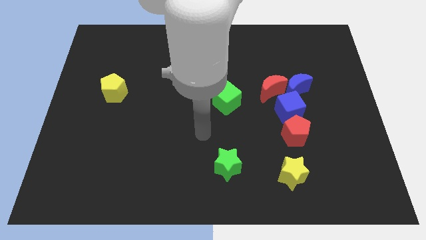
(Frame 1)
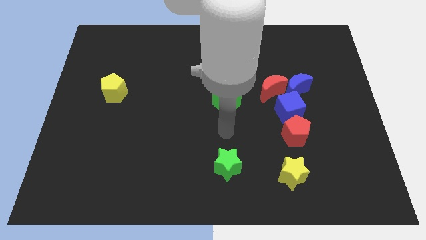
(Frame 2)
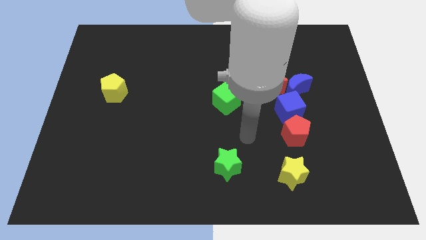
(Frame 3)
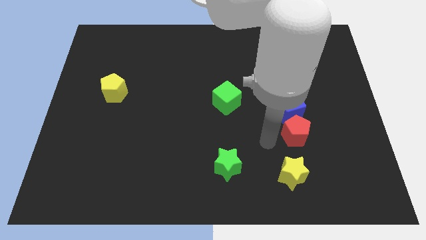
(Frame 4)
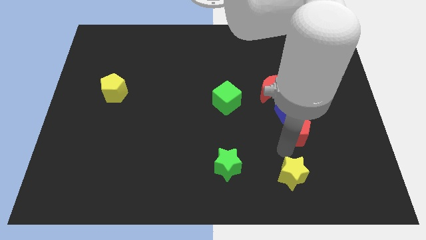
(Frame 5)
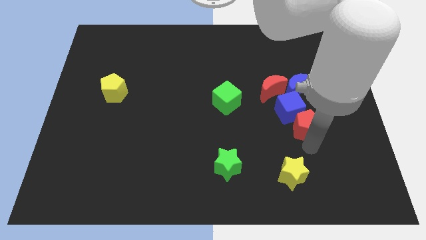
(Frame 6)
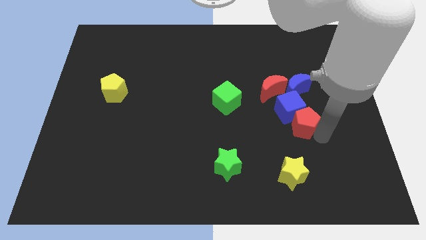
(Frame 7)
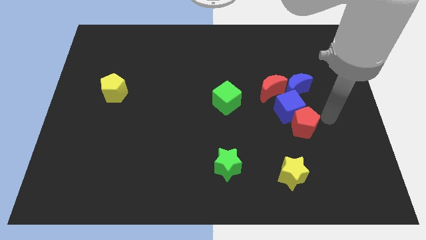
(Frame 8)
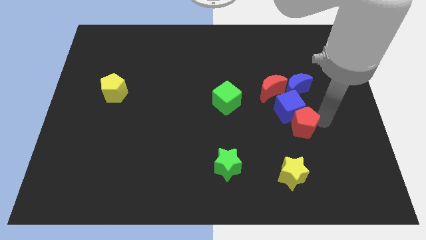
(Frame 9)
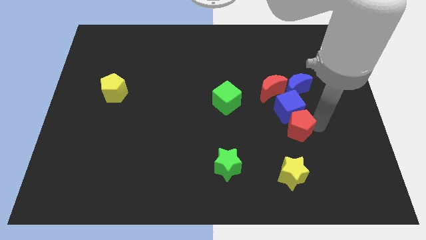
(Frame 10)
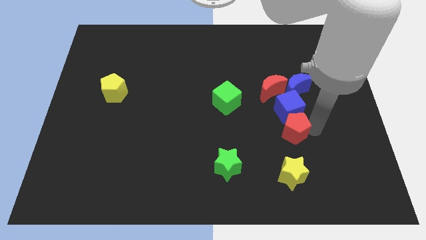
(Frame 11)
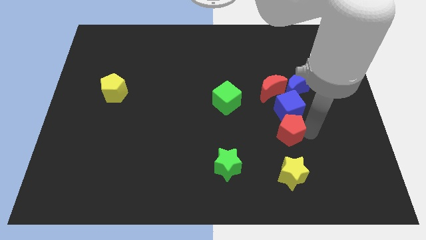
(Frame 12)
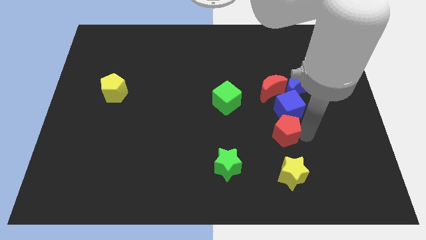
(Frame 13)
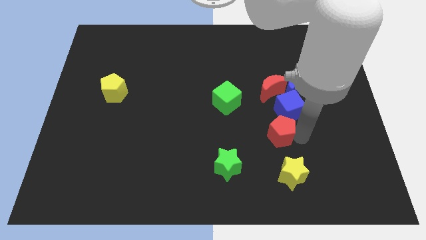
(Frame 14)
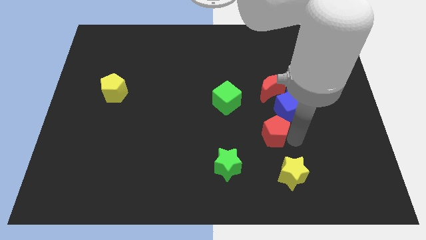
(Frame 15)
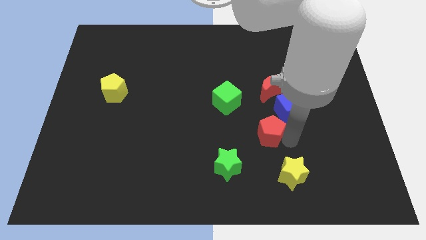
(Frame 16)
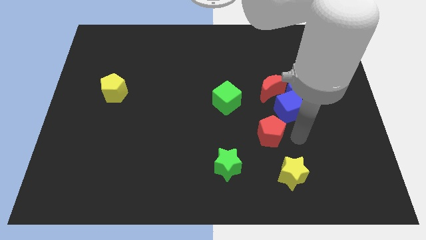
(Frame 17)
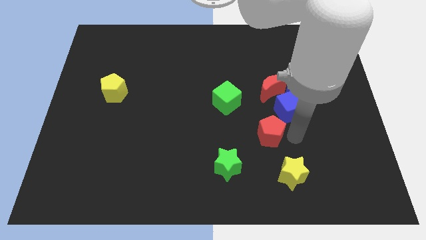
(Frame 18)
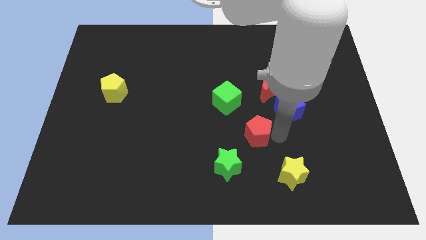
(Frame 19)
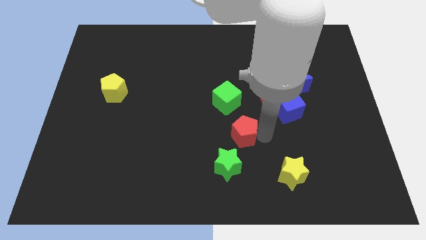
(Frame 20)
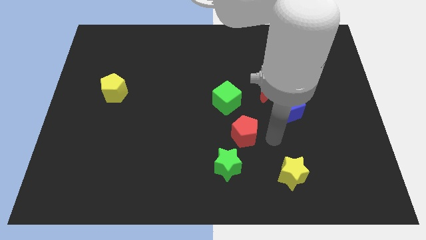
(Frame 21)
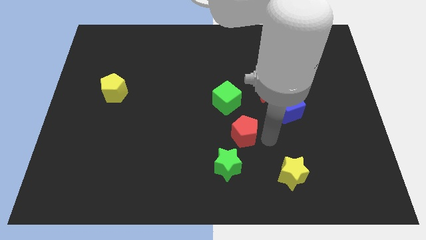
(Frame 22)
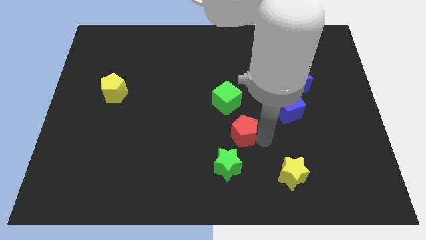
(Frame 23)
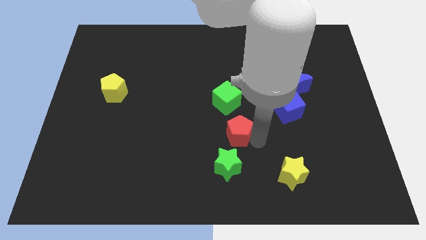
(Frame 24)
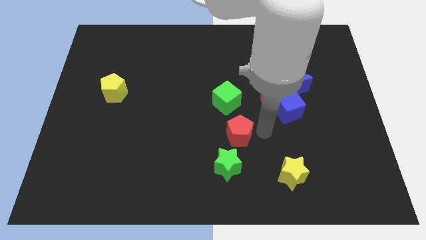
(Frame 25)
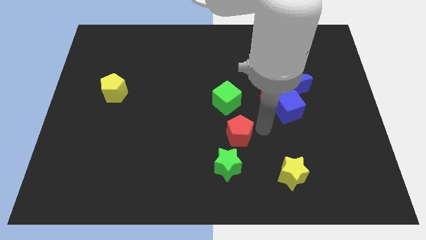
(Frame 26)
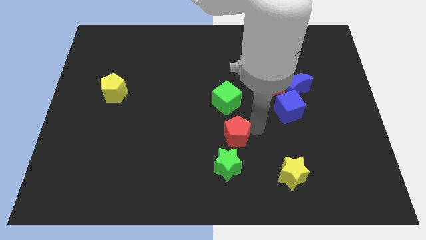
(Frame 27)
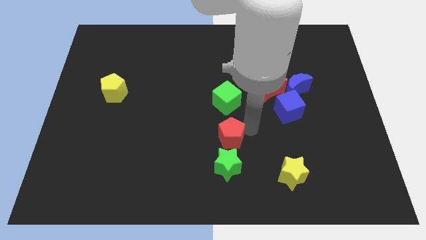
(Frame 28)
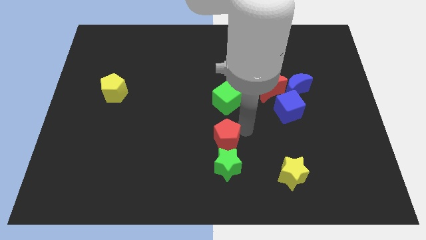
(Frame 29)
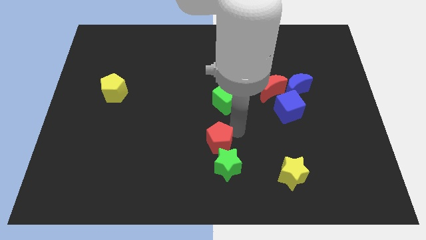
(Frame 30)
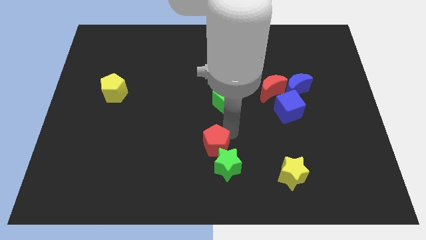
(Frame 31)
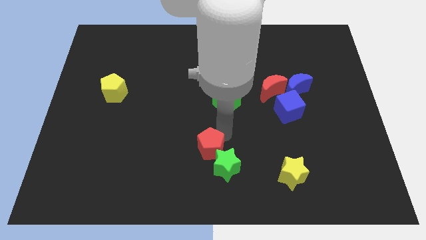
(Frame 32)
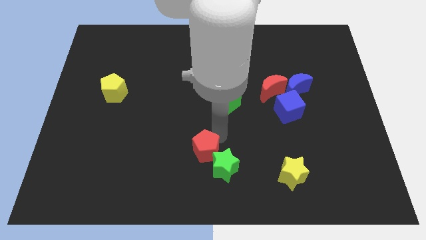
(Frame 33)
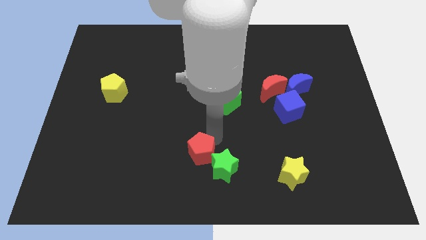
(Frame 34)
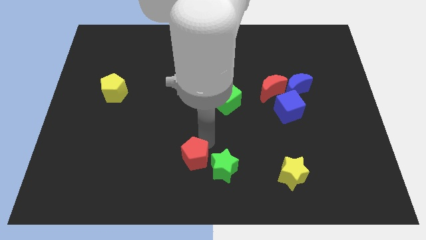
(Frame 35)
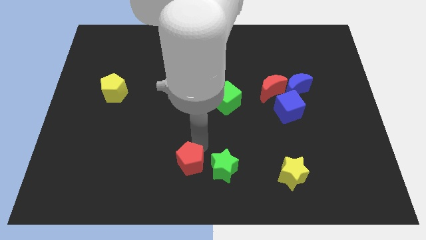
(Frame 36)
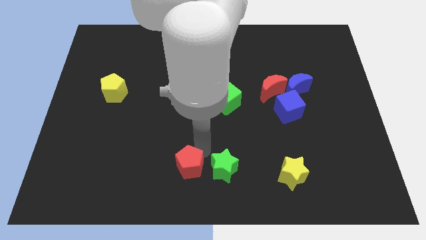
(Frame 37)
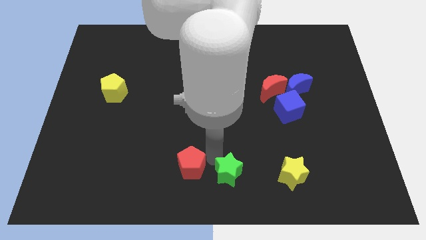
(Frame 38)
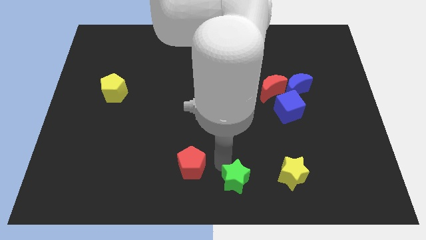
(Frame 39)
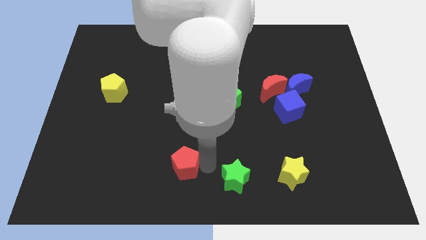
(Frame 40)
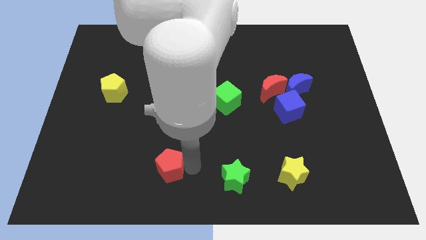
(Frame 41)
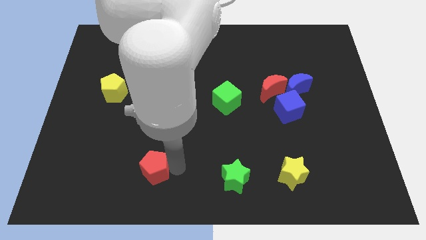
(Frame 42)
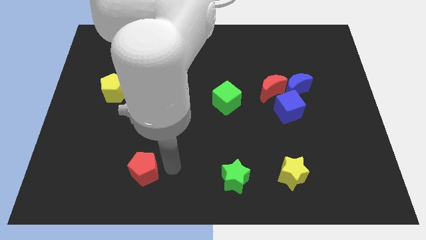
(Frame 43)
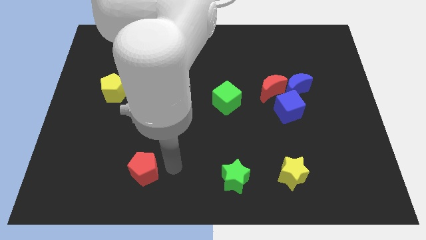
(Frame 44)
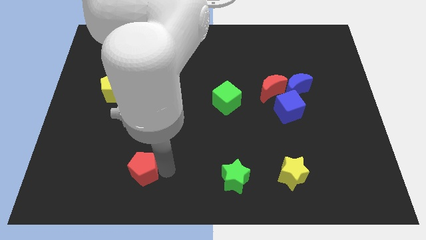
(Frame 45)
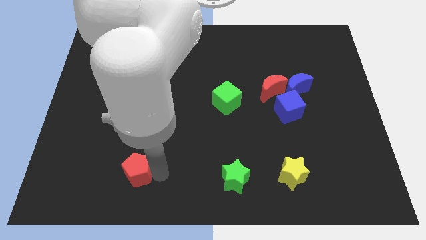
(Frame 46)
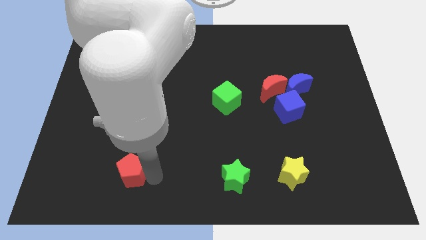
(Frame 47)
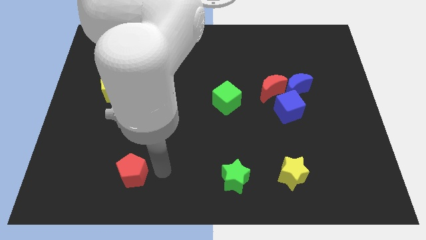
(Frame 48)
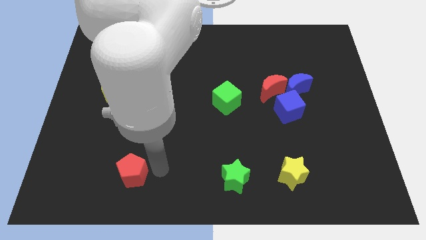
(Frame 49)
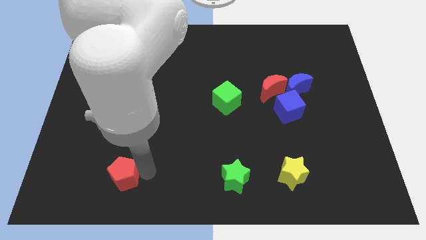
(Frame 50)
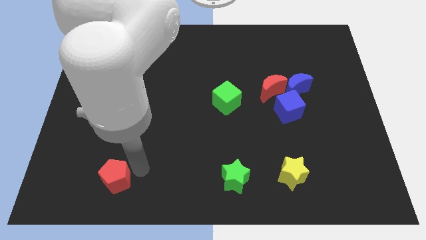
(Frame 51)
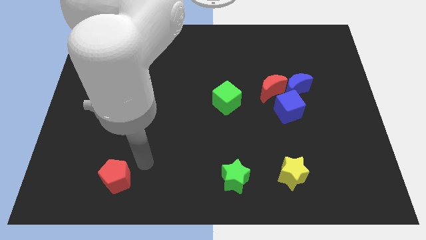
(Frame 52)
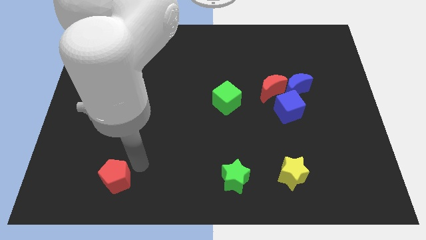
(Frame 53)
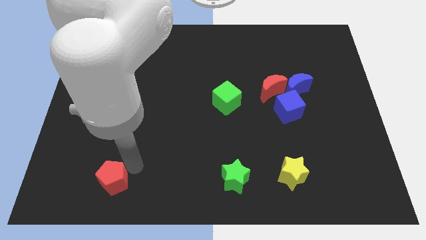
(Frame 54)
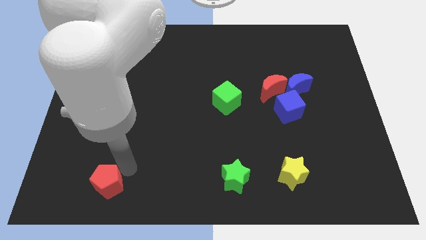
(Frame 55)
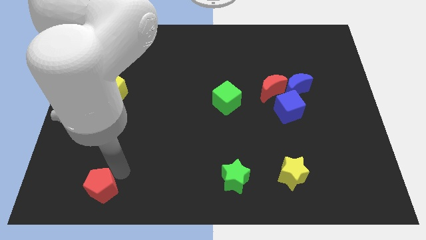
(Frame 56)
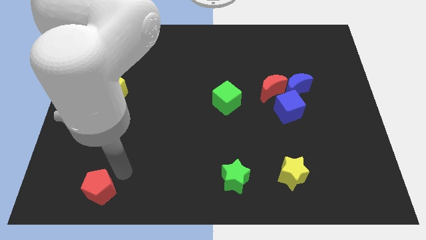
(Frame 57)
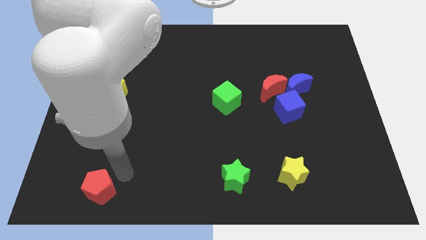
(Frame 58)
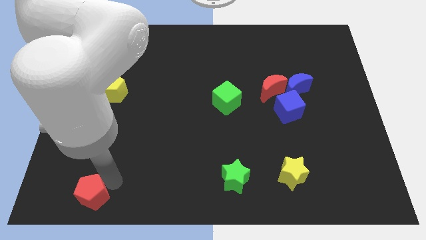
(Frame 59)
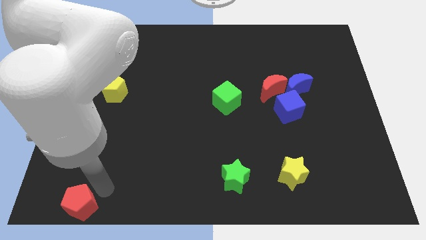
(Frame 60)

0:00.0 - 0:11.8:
put the red pentagon to the bottom left corner

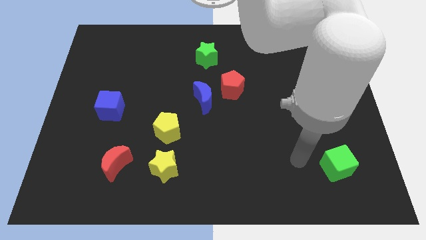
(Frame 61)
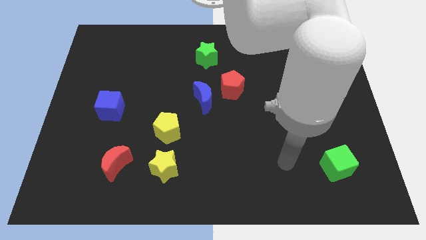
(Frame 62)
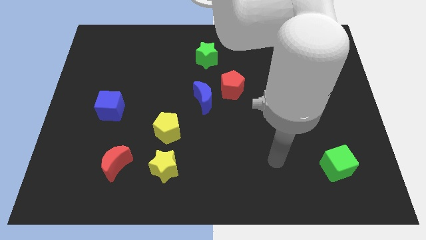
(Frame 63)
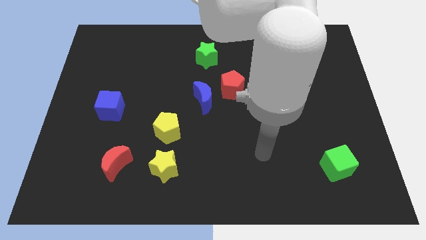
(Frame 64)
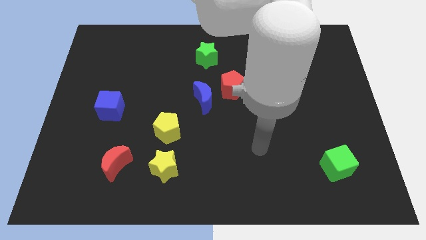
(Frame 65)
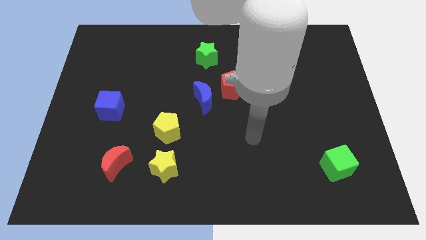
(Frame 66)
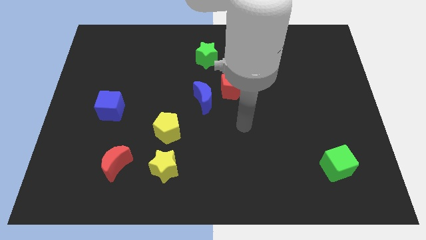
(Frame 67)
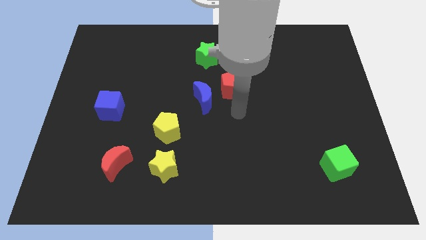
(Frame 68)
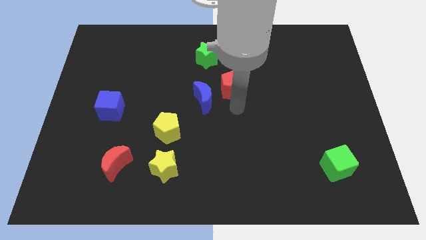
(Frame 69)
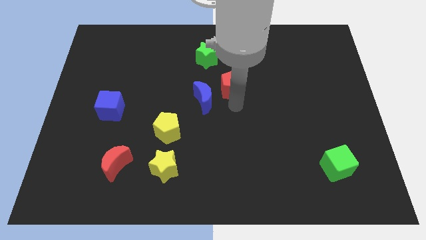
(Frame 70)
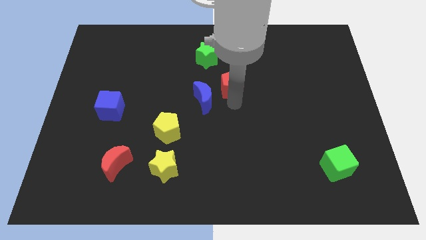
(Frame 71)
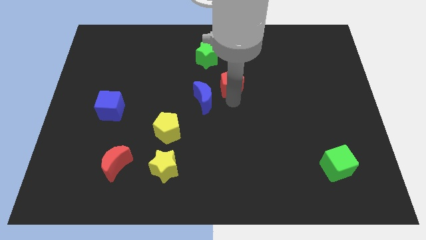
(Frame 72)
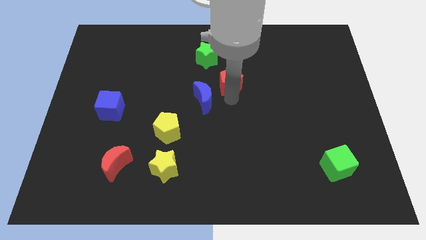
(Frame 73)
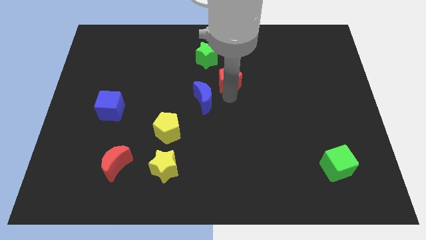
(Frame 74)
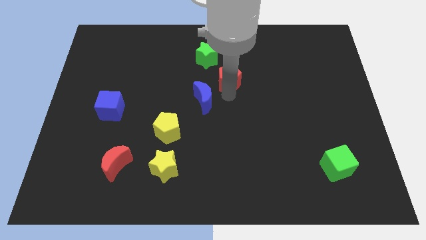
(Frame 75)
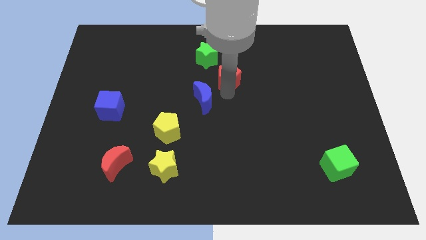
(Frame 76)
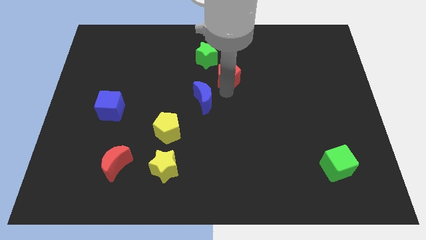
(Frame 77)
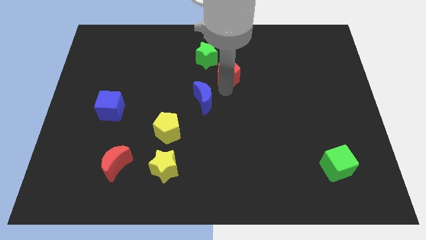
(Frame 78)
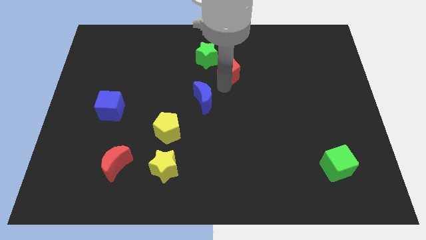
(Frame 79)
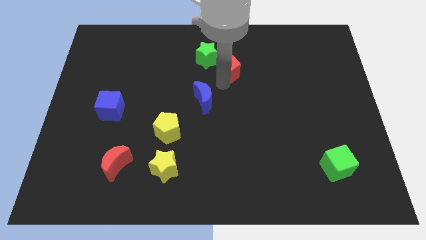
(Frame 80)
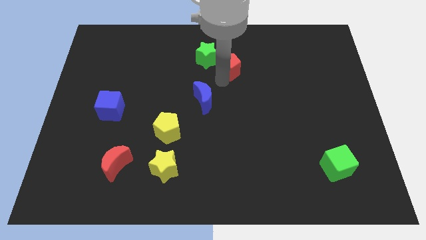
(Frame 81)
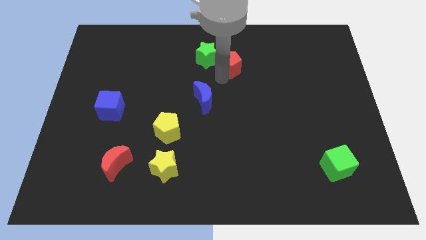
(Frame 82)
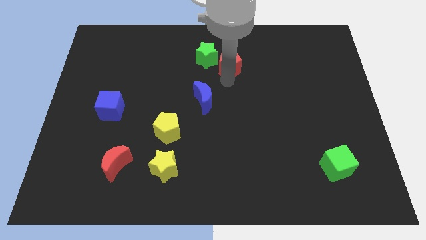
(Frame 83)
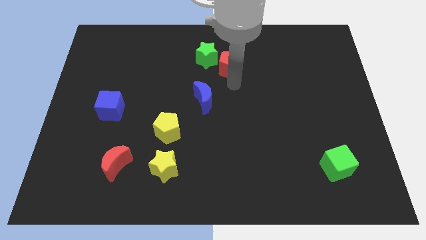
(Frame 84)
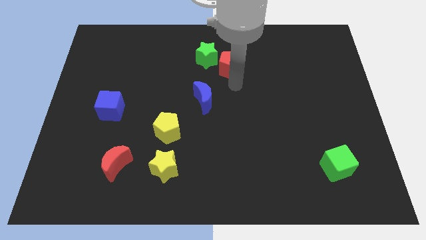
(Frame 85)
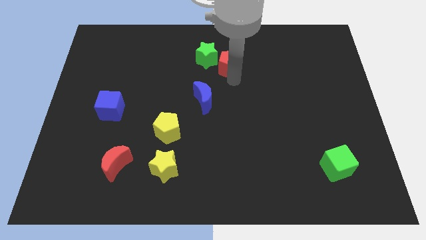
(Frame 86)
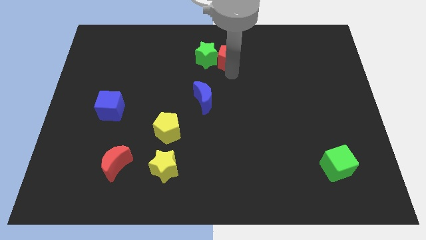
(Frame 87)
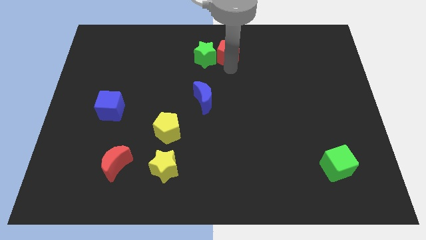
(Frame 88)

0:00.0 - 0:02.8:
push the red pentagon to the top side
